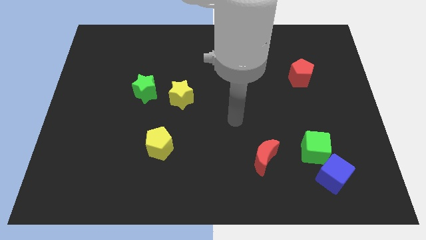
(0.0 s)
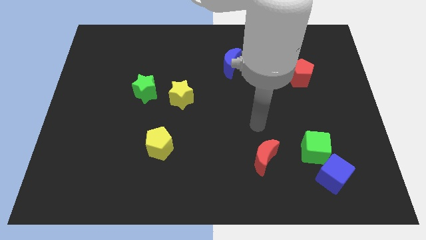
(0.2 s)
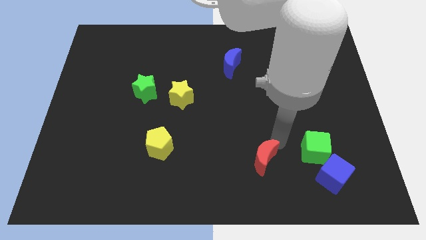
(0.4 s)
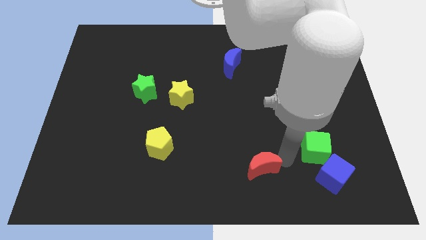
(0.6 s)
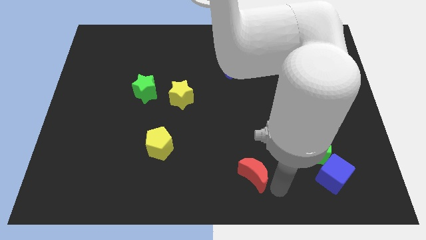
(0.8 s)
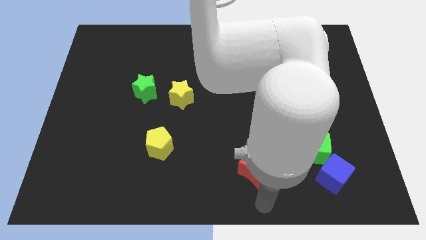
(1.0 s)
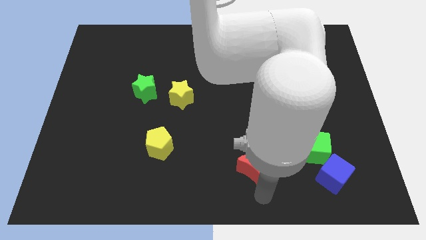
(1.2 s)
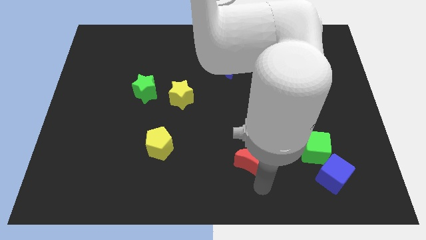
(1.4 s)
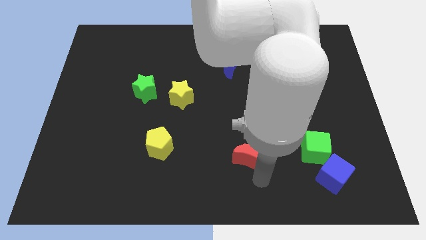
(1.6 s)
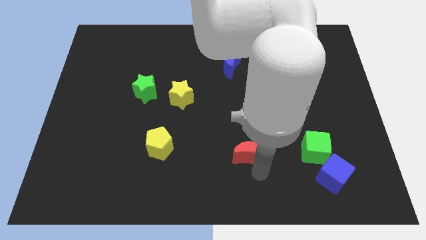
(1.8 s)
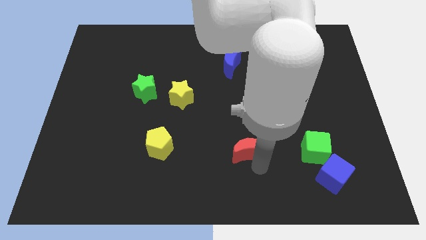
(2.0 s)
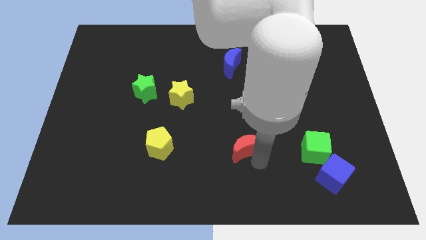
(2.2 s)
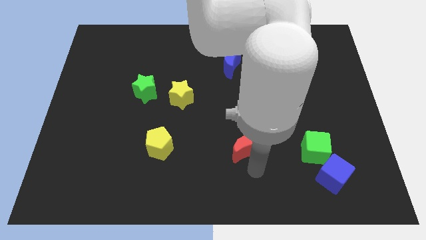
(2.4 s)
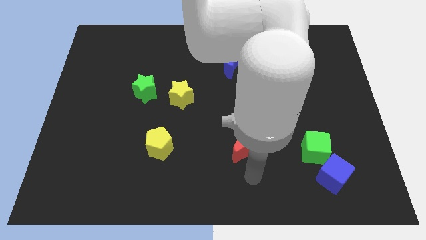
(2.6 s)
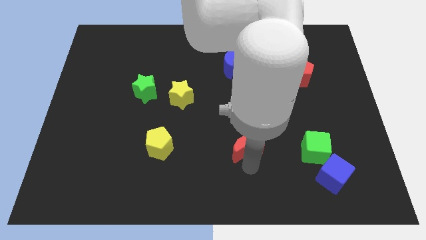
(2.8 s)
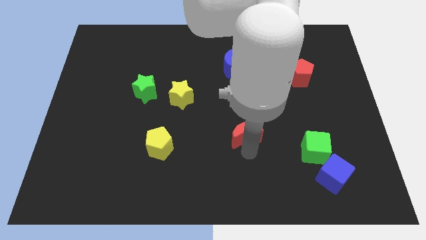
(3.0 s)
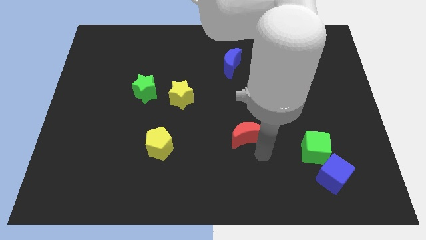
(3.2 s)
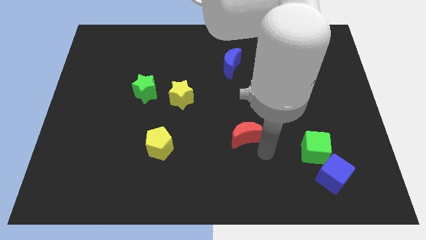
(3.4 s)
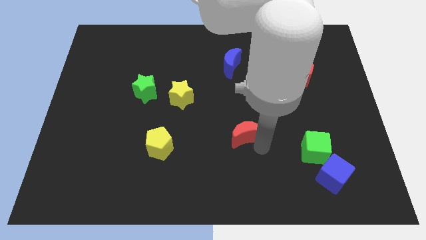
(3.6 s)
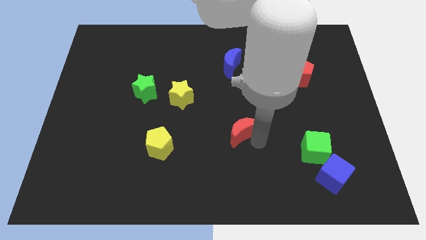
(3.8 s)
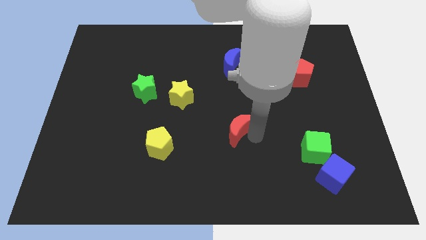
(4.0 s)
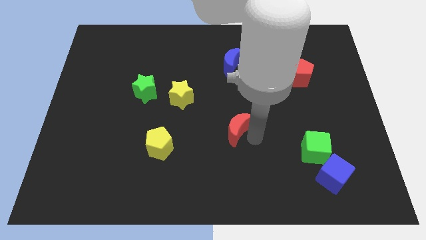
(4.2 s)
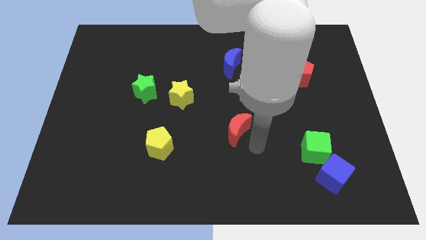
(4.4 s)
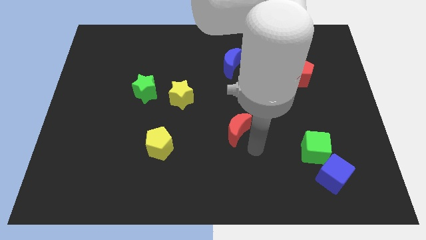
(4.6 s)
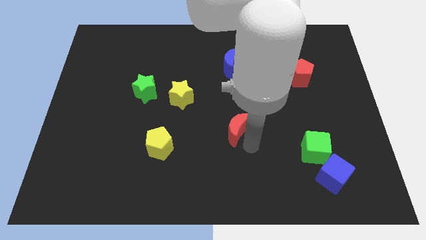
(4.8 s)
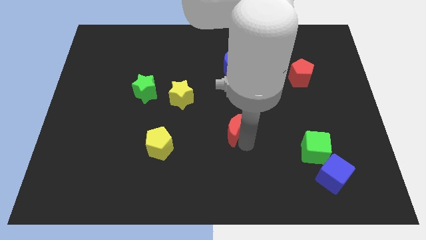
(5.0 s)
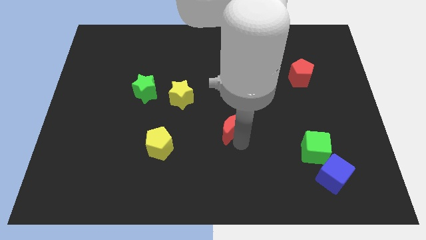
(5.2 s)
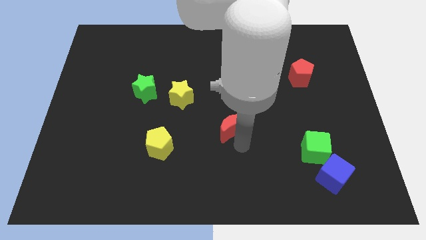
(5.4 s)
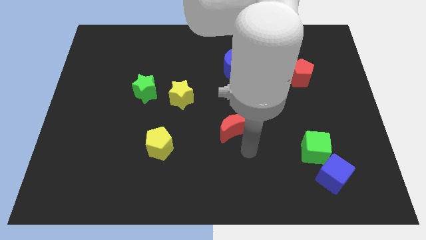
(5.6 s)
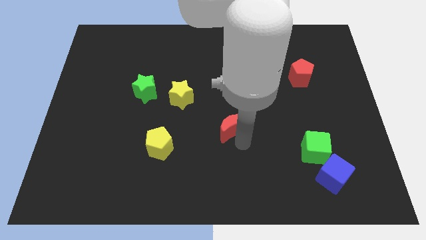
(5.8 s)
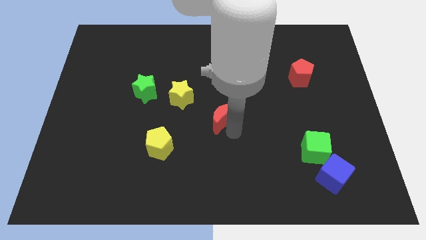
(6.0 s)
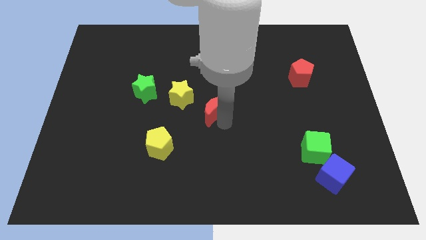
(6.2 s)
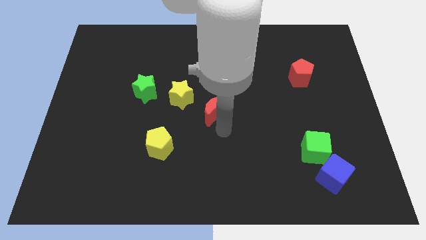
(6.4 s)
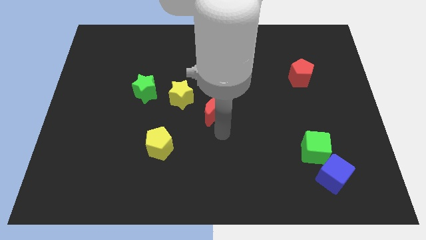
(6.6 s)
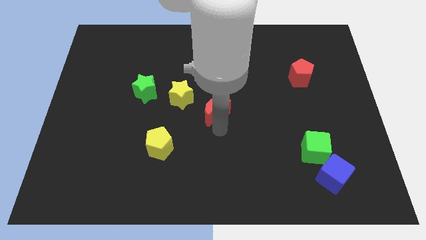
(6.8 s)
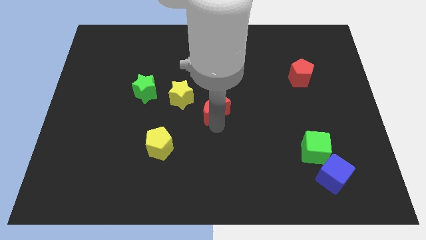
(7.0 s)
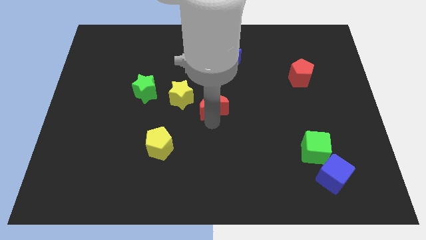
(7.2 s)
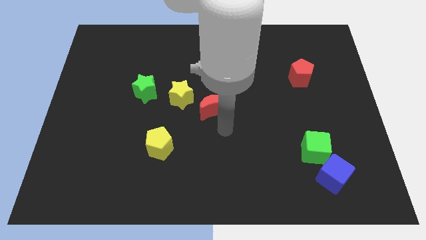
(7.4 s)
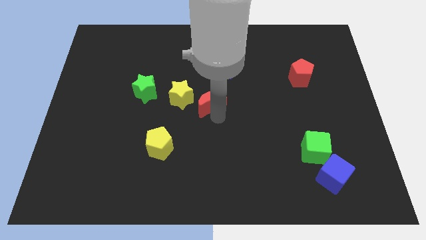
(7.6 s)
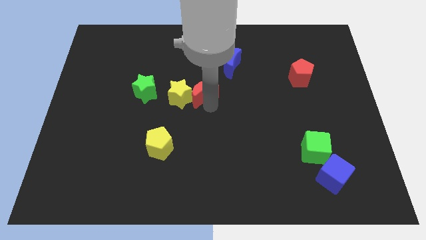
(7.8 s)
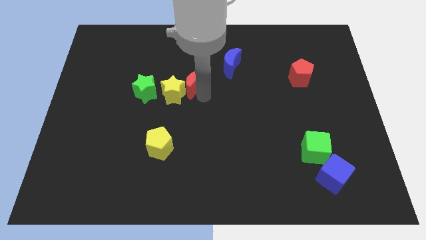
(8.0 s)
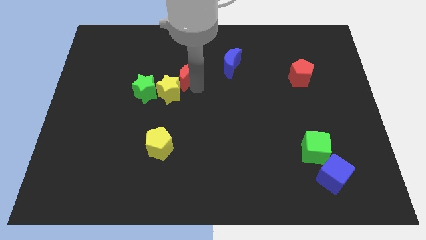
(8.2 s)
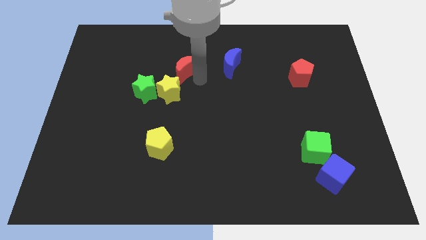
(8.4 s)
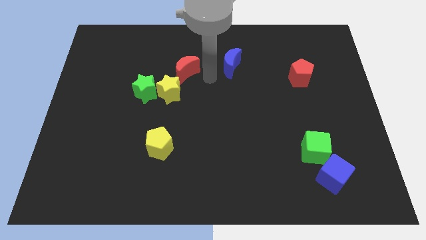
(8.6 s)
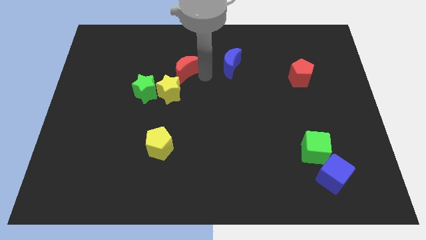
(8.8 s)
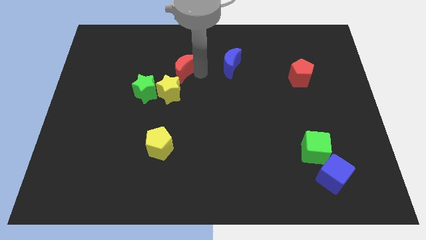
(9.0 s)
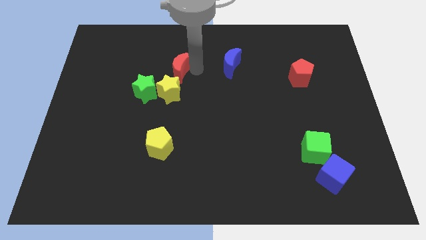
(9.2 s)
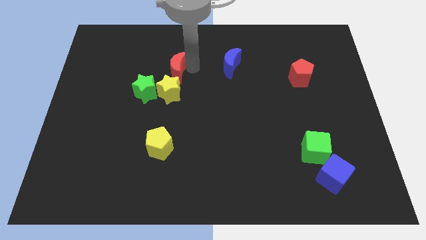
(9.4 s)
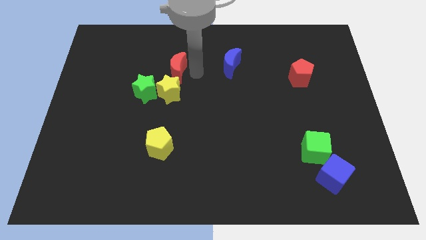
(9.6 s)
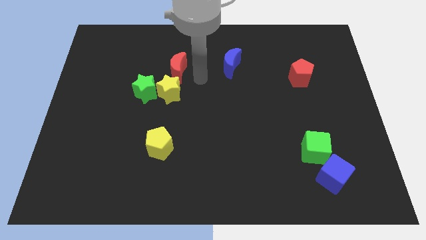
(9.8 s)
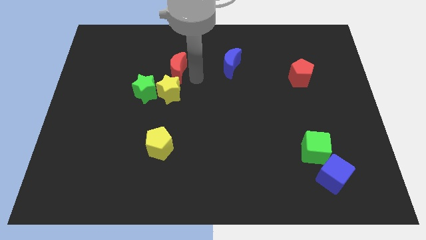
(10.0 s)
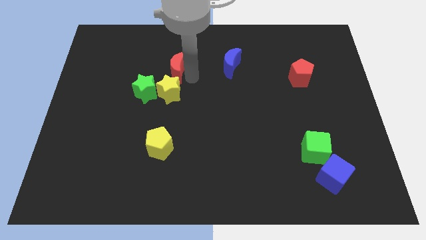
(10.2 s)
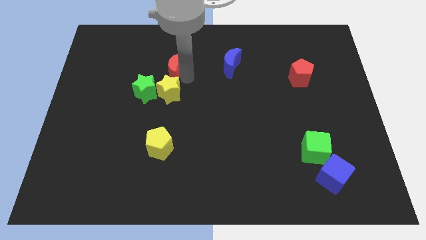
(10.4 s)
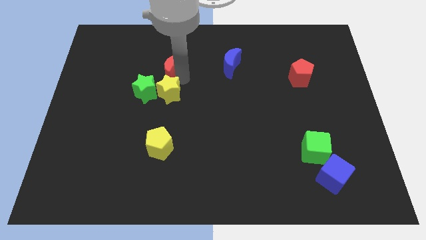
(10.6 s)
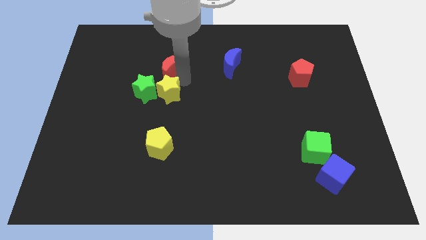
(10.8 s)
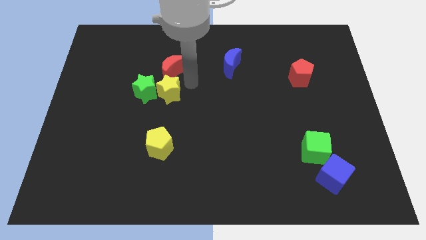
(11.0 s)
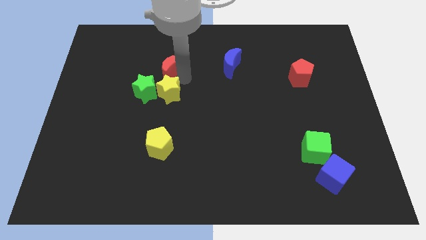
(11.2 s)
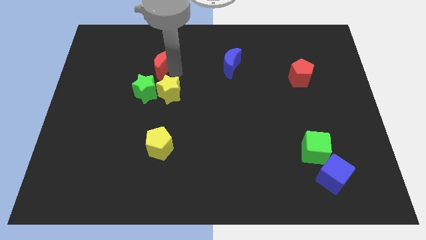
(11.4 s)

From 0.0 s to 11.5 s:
move the red moon to the top of the green star

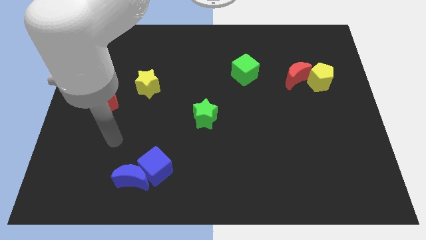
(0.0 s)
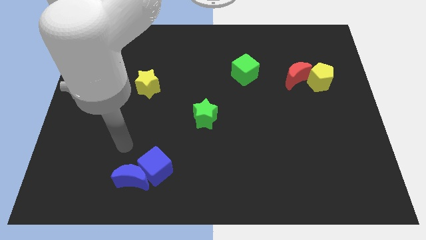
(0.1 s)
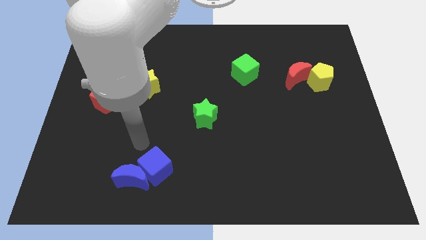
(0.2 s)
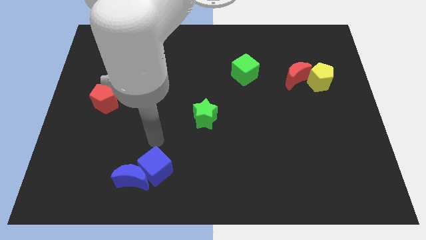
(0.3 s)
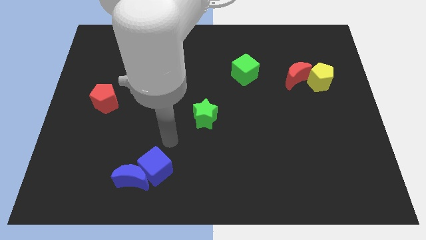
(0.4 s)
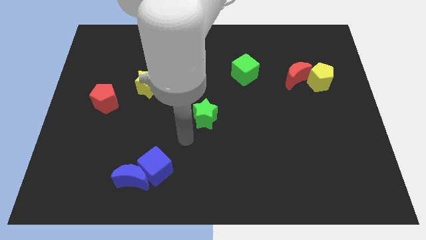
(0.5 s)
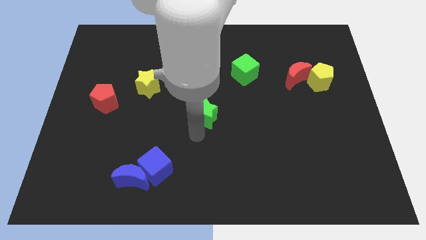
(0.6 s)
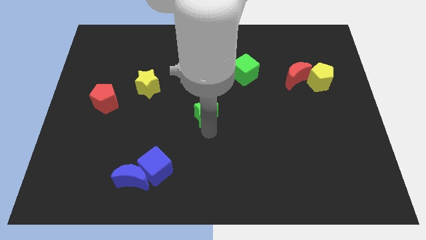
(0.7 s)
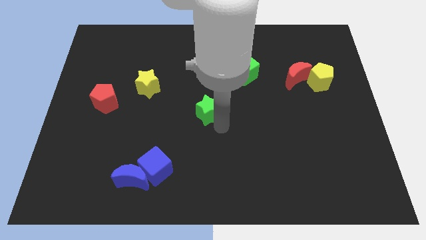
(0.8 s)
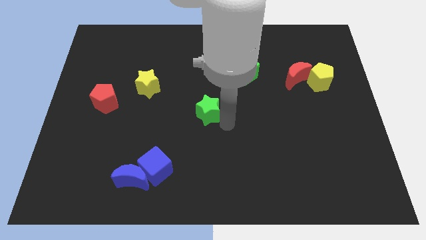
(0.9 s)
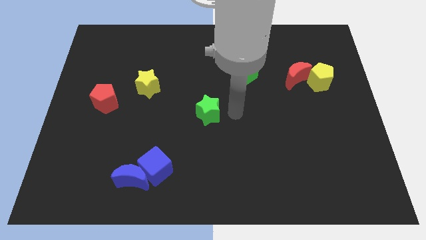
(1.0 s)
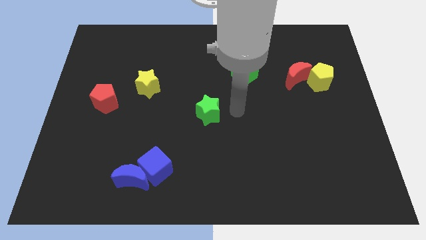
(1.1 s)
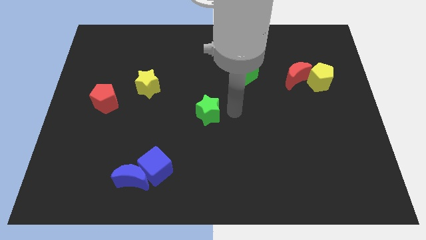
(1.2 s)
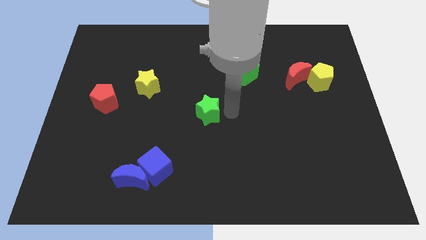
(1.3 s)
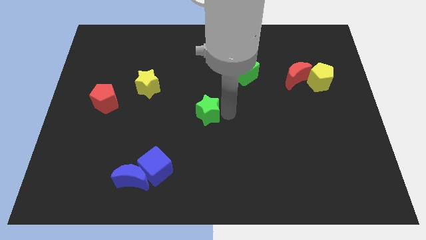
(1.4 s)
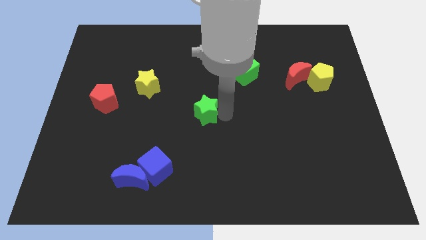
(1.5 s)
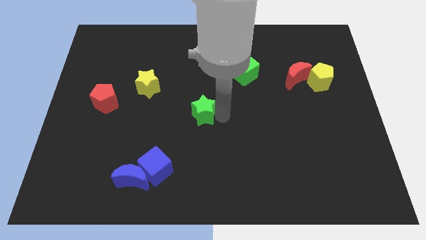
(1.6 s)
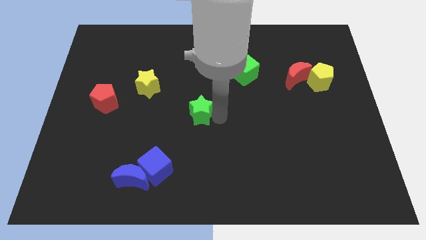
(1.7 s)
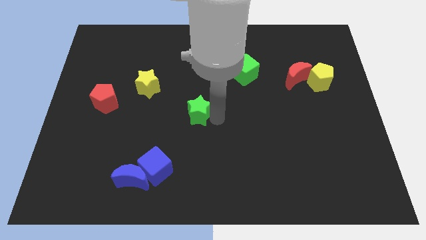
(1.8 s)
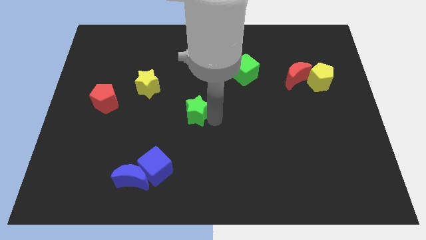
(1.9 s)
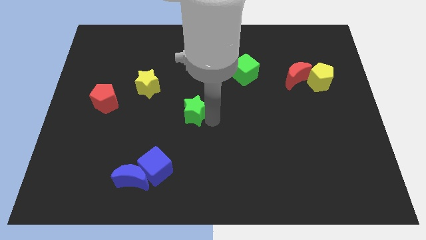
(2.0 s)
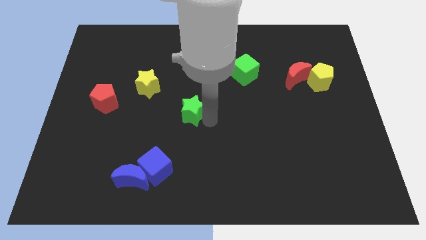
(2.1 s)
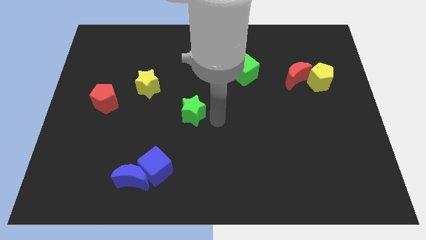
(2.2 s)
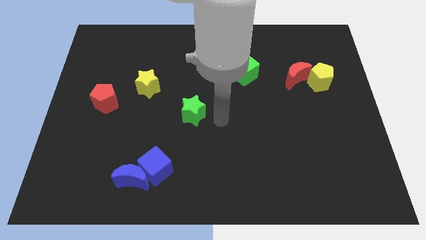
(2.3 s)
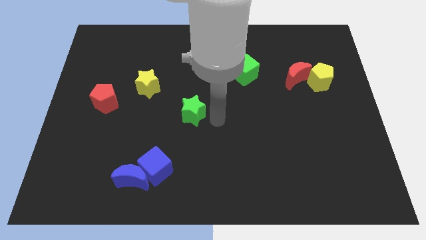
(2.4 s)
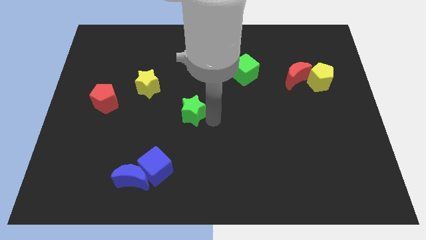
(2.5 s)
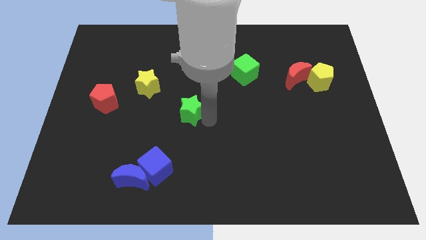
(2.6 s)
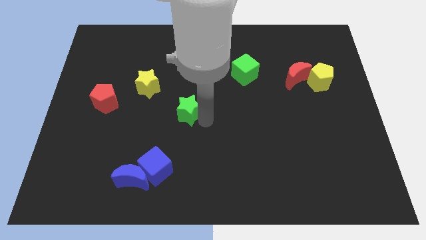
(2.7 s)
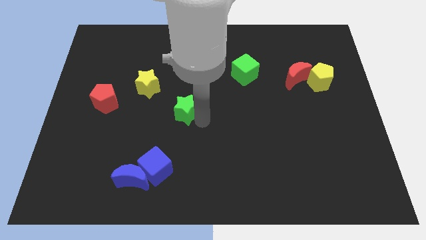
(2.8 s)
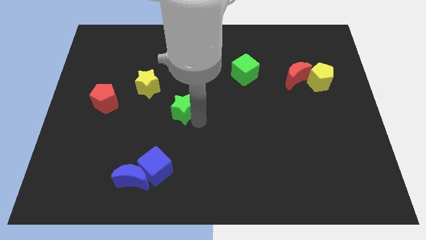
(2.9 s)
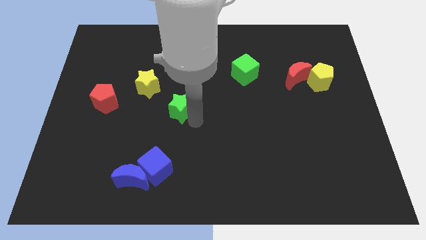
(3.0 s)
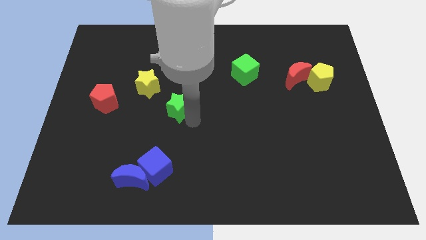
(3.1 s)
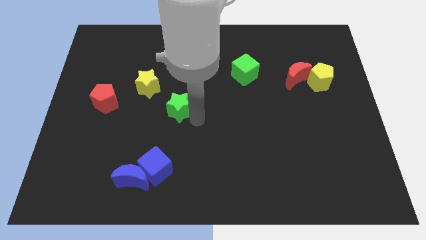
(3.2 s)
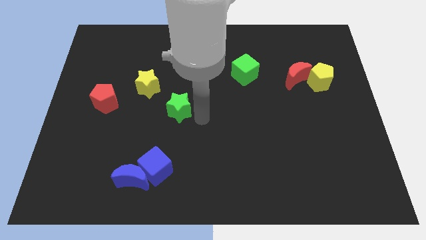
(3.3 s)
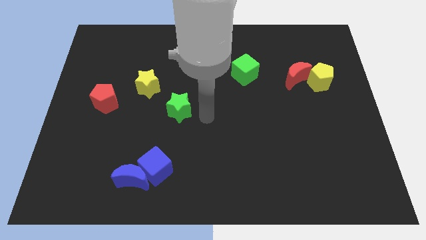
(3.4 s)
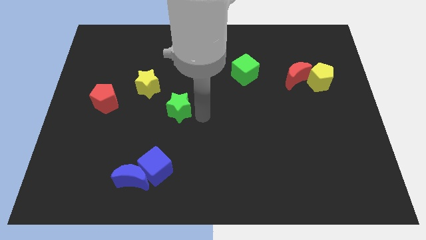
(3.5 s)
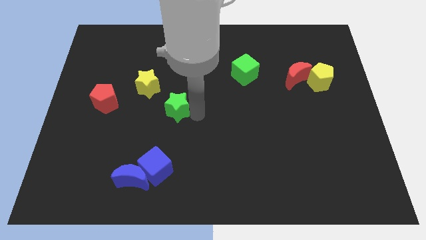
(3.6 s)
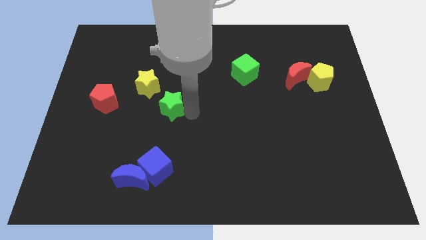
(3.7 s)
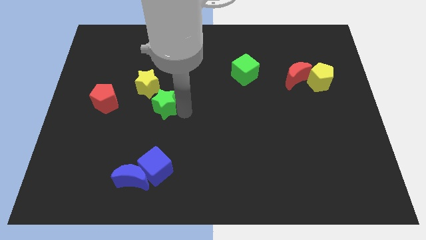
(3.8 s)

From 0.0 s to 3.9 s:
move the green star to the right side of the red pentagon
